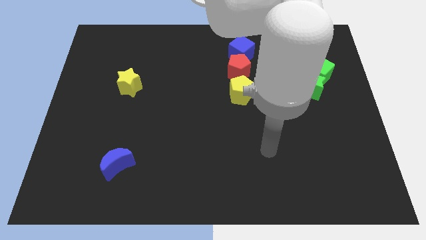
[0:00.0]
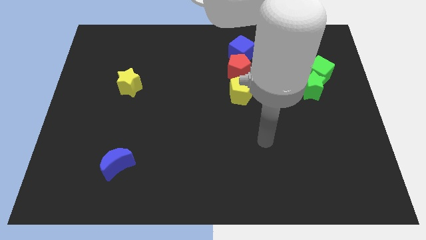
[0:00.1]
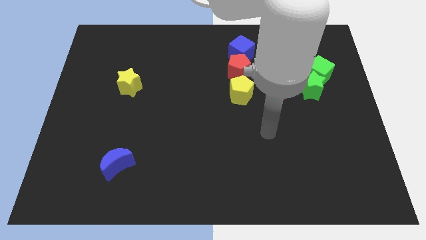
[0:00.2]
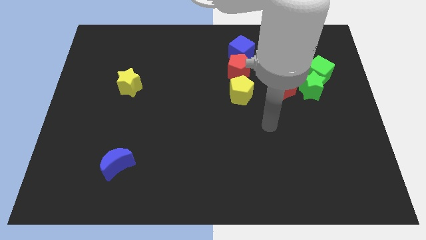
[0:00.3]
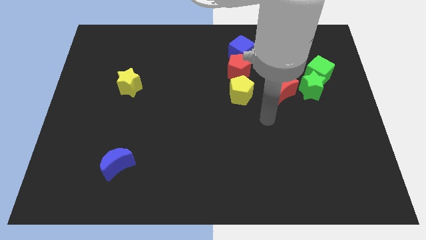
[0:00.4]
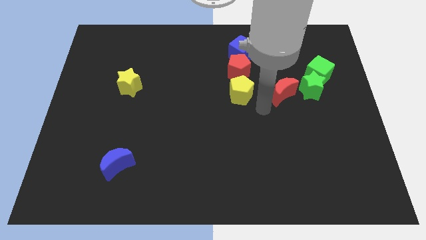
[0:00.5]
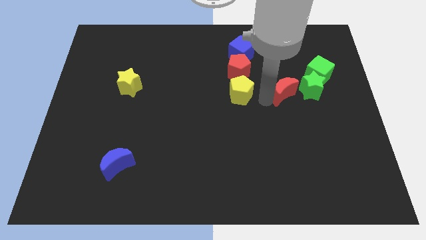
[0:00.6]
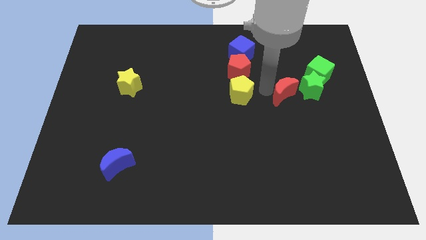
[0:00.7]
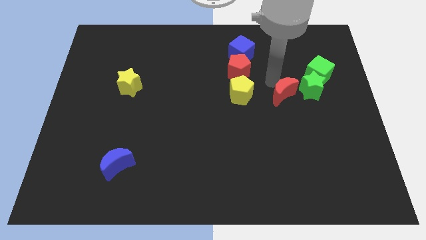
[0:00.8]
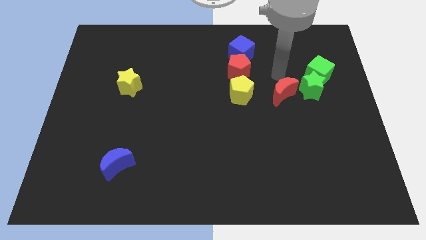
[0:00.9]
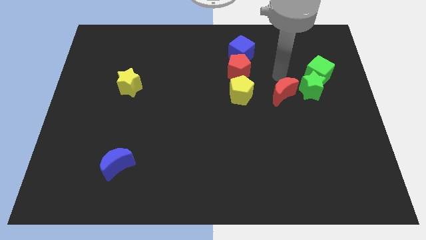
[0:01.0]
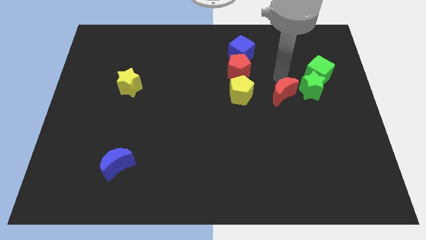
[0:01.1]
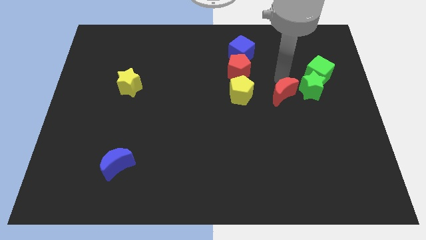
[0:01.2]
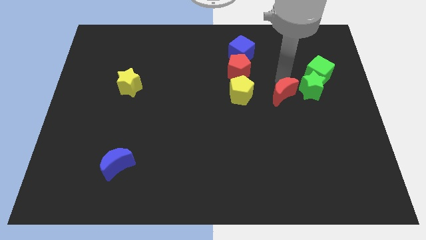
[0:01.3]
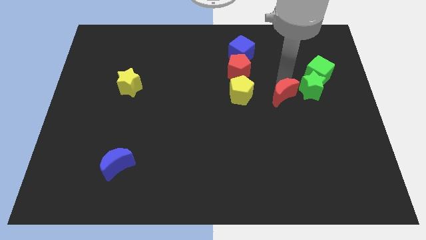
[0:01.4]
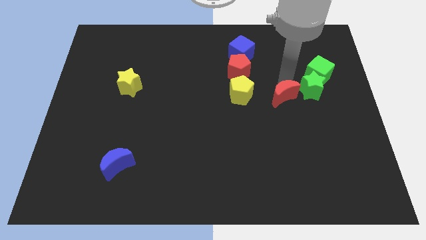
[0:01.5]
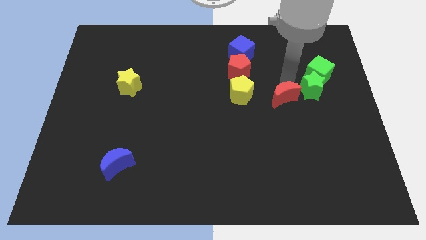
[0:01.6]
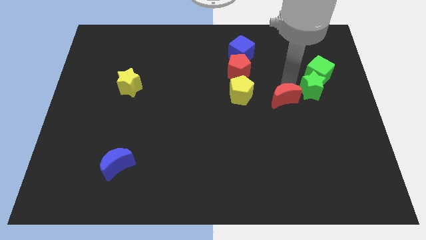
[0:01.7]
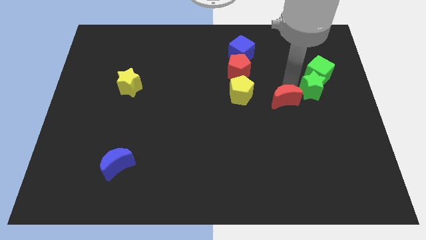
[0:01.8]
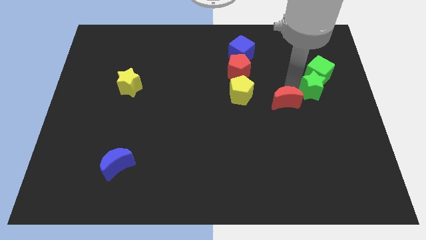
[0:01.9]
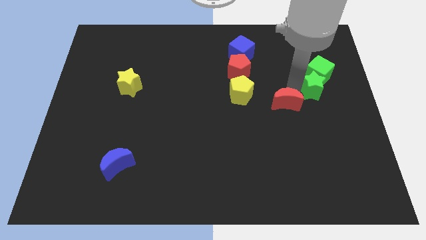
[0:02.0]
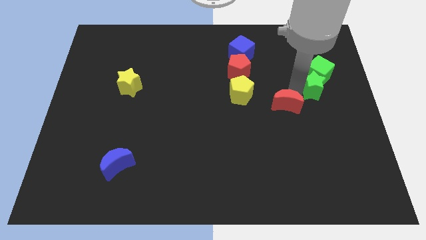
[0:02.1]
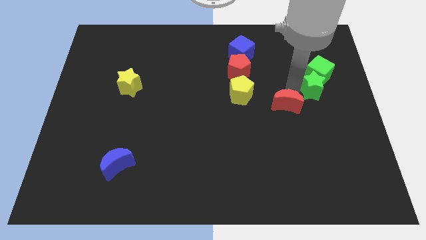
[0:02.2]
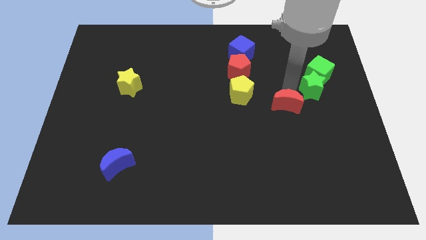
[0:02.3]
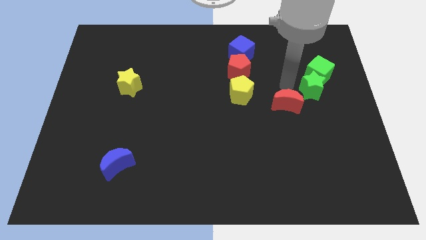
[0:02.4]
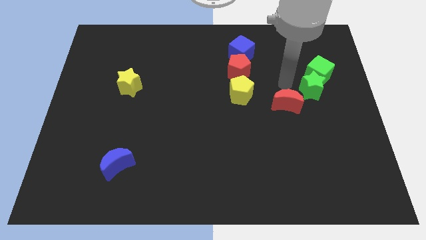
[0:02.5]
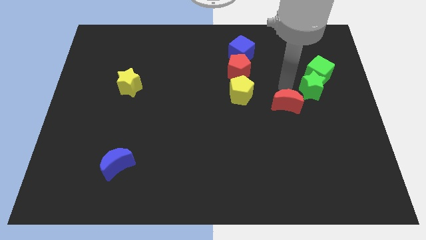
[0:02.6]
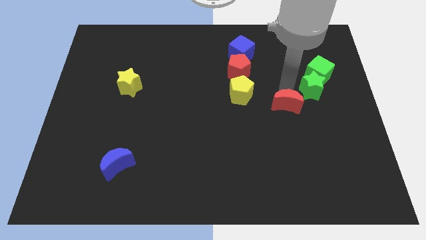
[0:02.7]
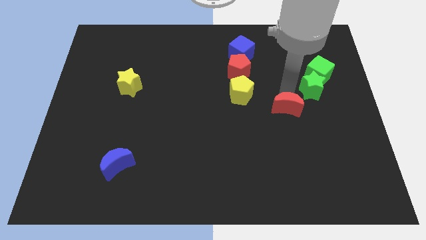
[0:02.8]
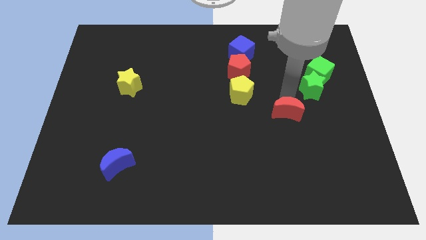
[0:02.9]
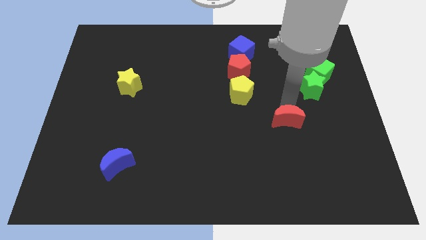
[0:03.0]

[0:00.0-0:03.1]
push the red moon a little bit down

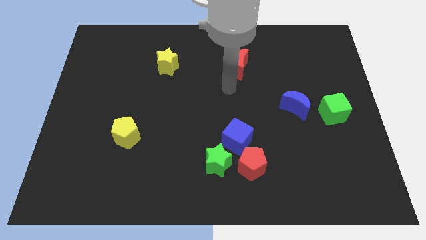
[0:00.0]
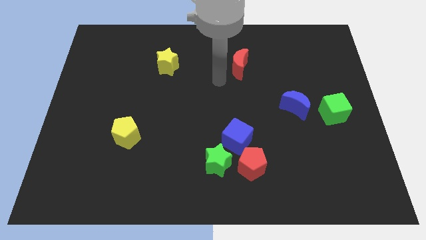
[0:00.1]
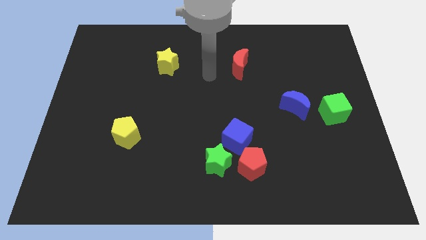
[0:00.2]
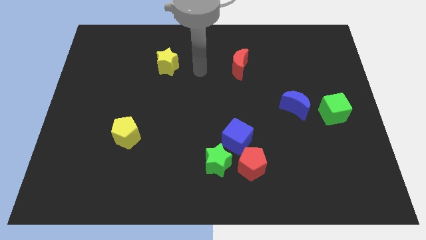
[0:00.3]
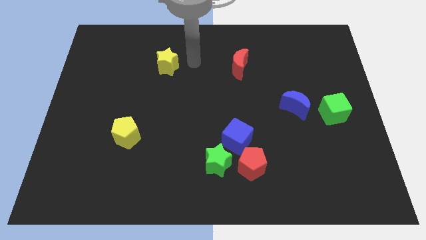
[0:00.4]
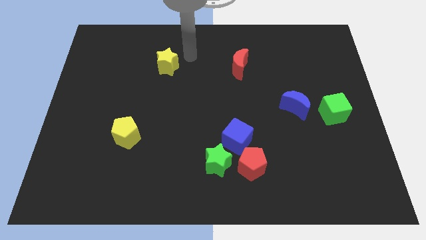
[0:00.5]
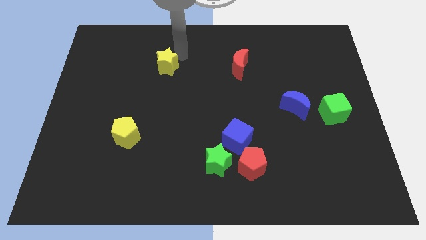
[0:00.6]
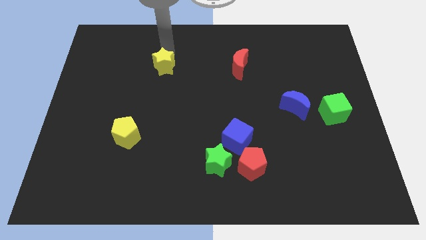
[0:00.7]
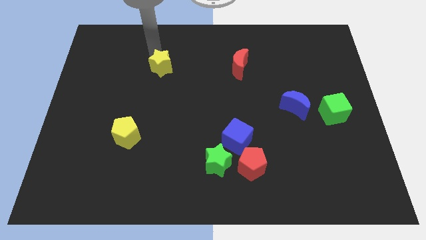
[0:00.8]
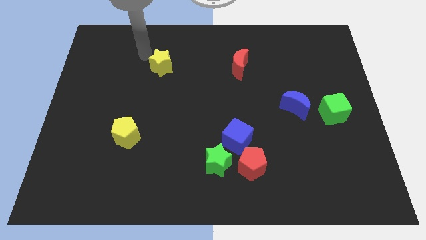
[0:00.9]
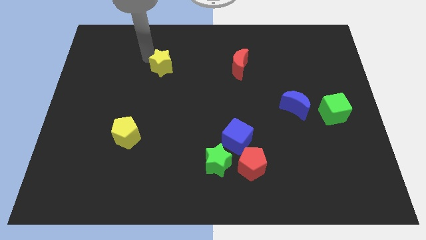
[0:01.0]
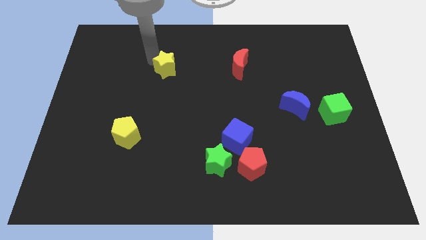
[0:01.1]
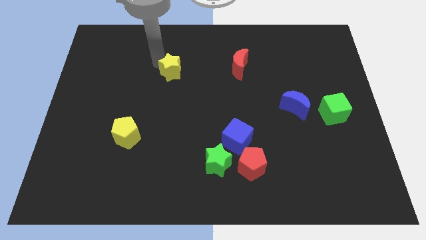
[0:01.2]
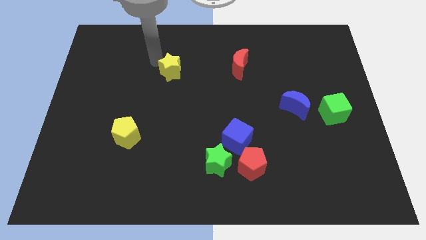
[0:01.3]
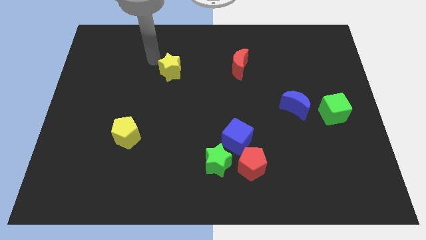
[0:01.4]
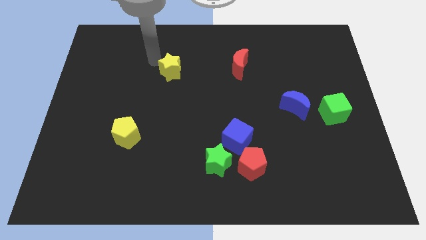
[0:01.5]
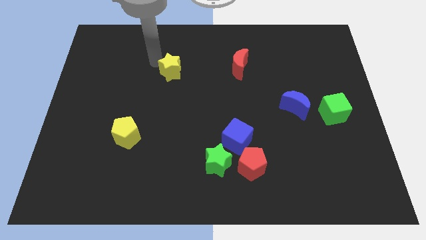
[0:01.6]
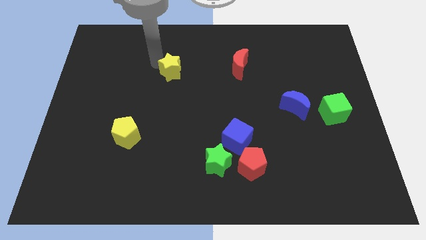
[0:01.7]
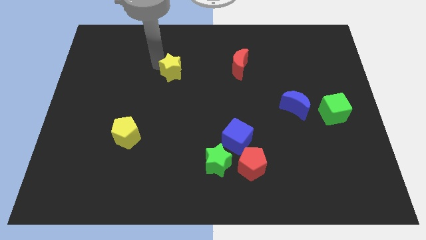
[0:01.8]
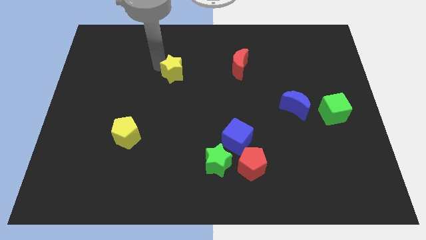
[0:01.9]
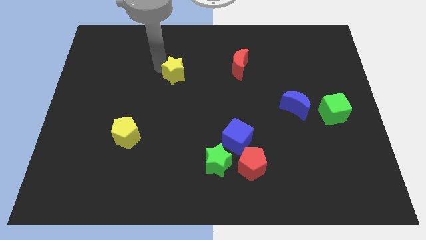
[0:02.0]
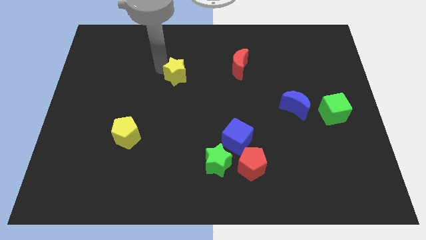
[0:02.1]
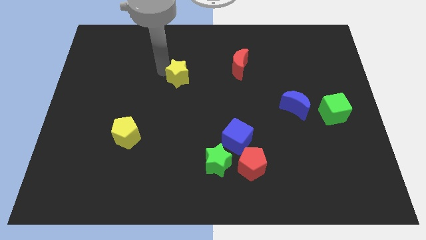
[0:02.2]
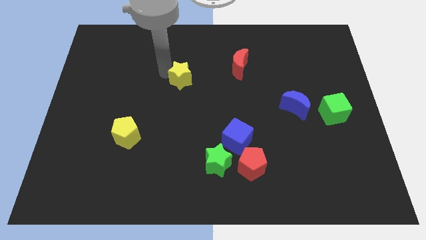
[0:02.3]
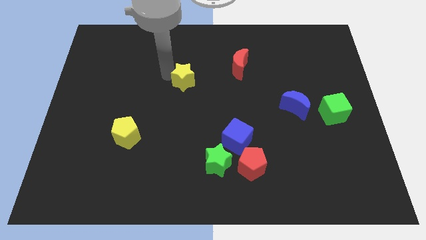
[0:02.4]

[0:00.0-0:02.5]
slide the yellow star downwards and then to the right a little

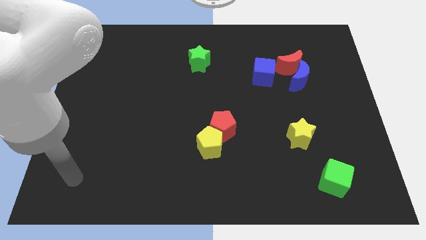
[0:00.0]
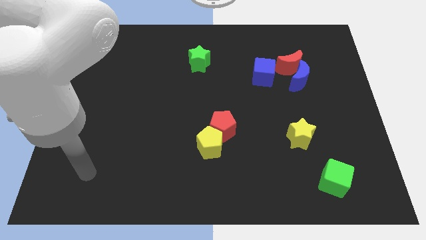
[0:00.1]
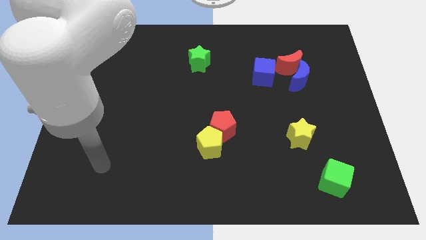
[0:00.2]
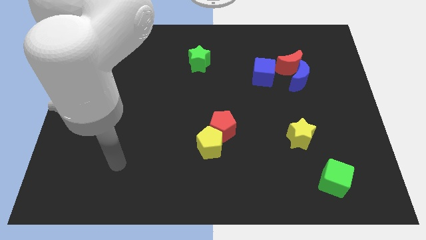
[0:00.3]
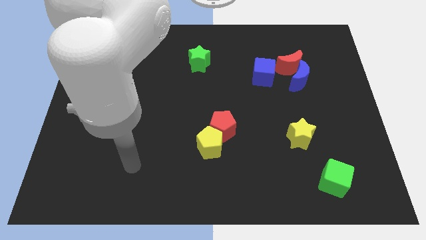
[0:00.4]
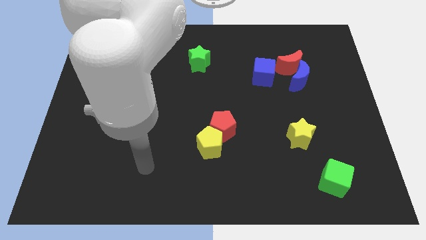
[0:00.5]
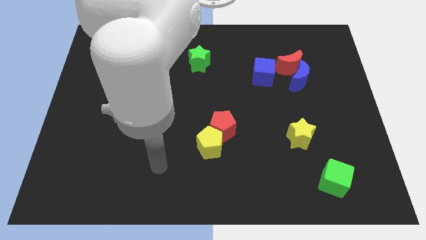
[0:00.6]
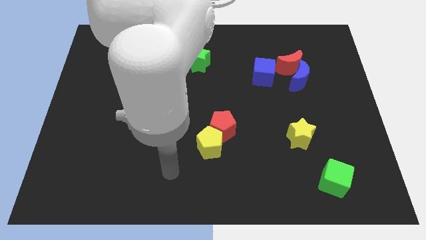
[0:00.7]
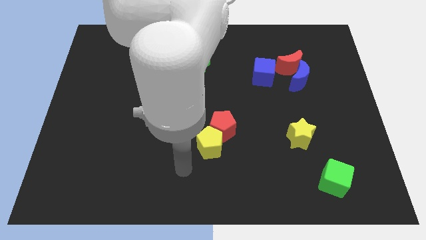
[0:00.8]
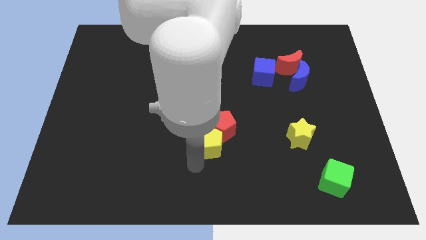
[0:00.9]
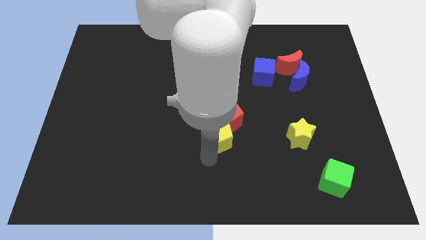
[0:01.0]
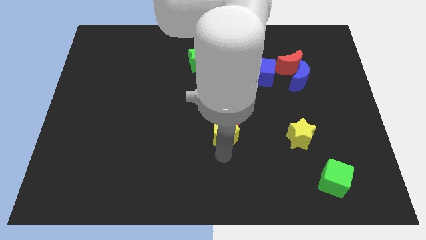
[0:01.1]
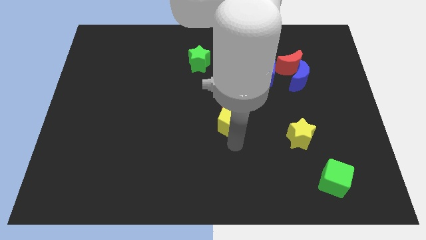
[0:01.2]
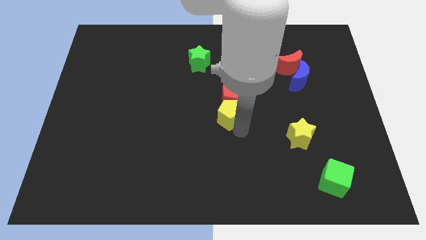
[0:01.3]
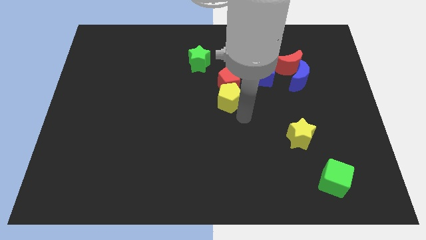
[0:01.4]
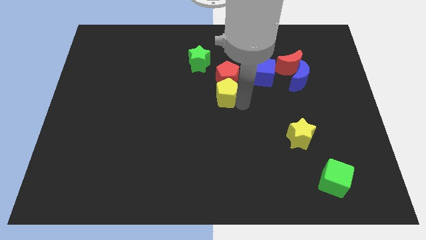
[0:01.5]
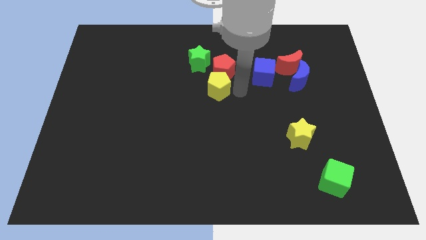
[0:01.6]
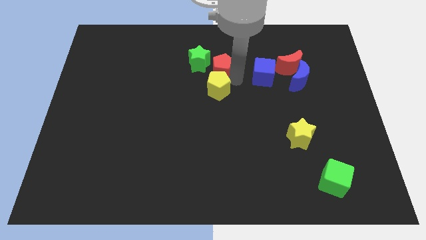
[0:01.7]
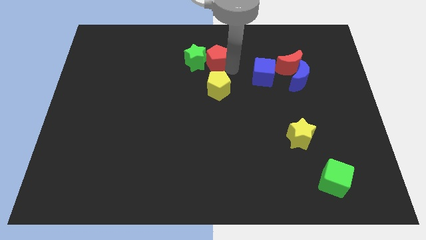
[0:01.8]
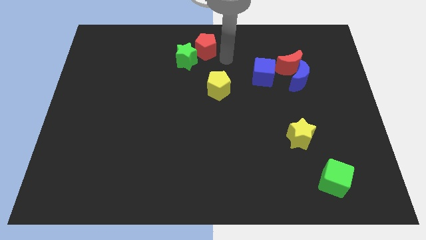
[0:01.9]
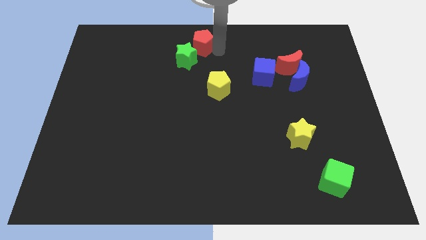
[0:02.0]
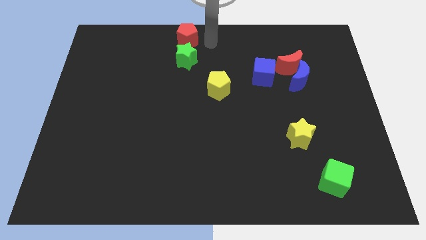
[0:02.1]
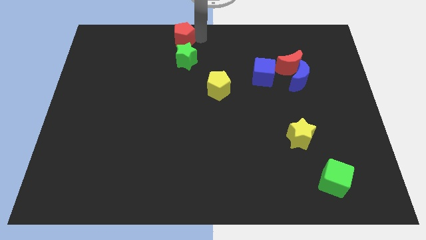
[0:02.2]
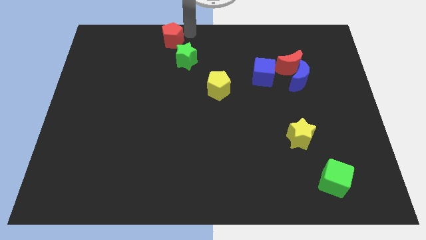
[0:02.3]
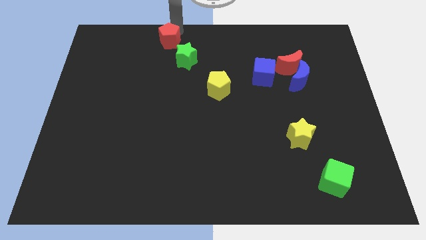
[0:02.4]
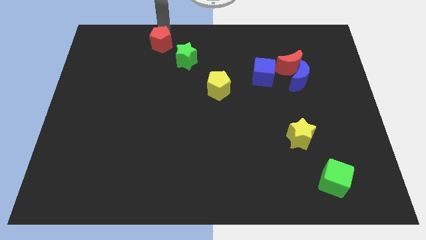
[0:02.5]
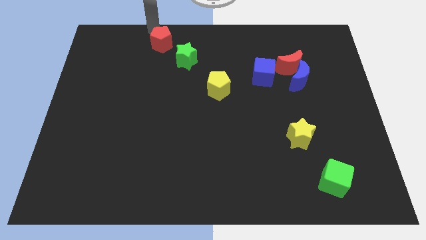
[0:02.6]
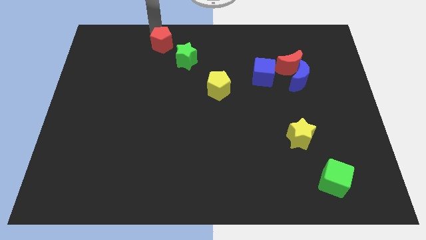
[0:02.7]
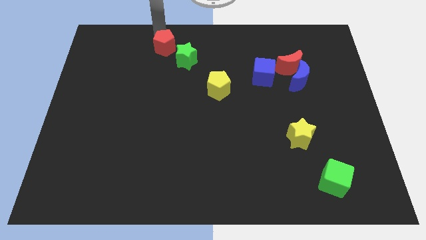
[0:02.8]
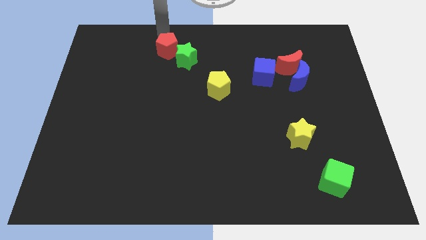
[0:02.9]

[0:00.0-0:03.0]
slightly slide the red pentagon diagonally upwards and to the left
